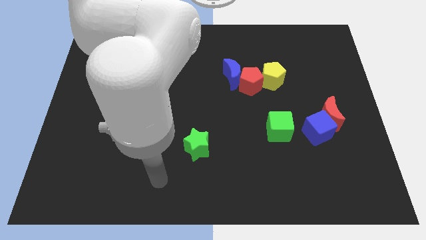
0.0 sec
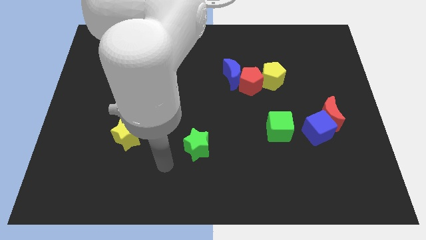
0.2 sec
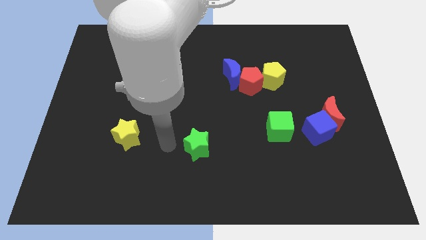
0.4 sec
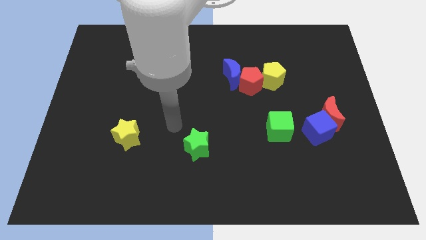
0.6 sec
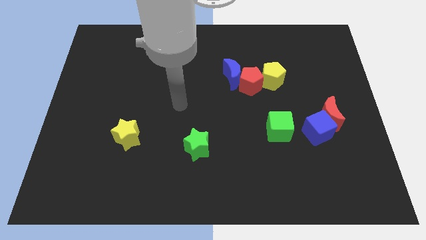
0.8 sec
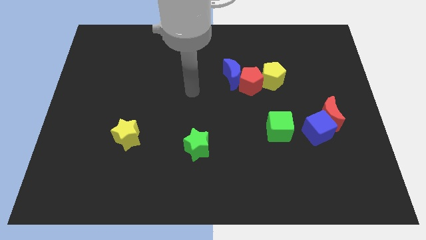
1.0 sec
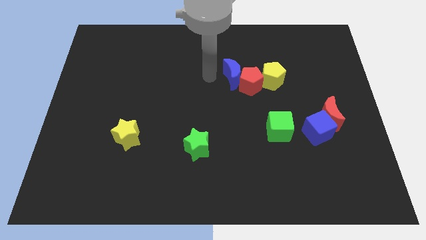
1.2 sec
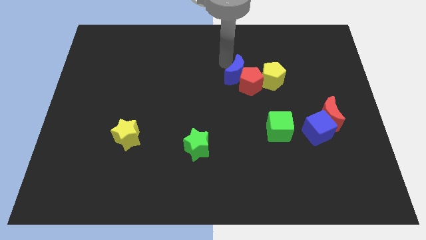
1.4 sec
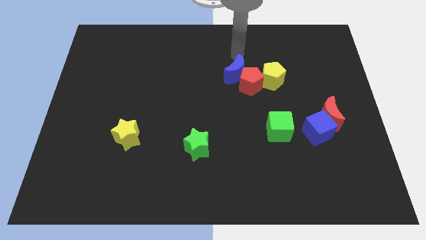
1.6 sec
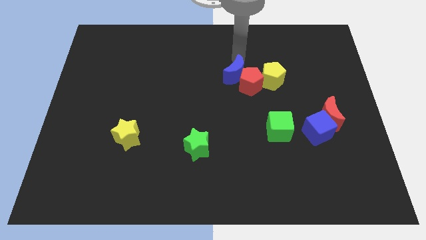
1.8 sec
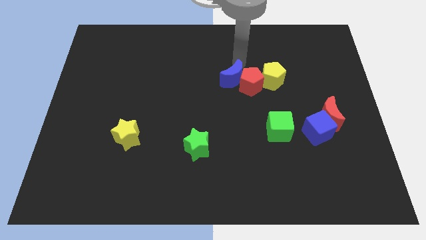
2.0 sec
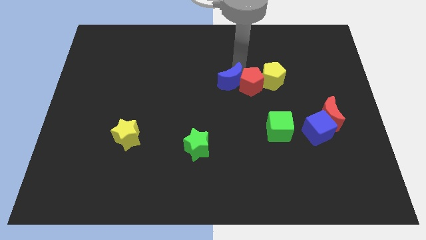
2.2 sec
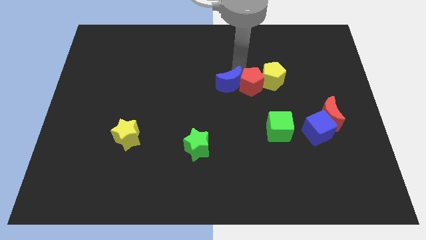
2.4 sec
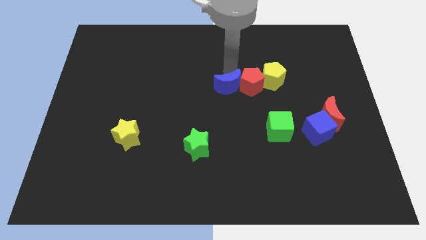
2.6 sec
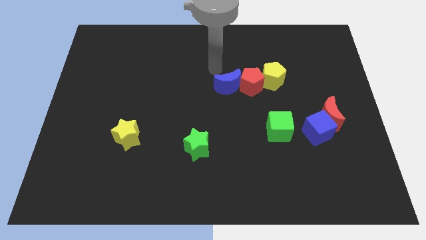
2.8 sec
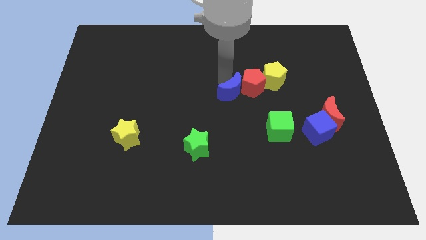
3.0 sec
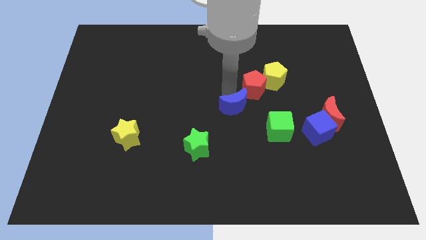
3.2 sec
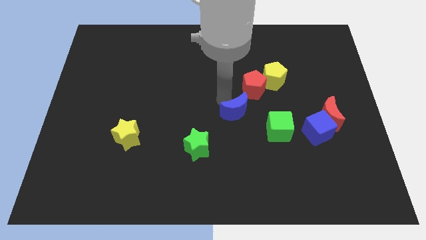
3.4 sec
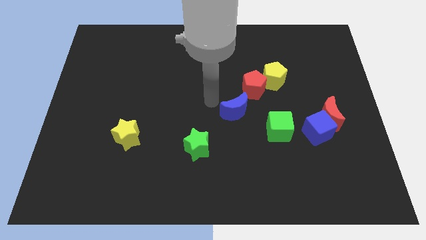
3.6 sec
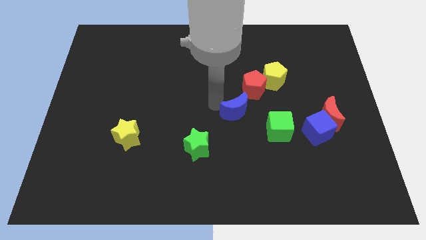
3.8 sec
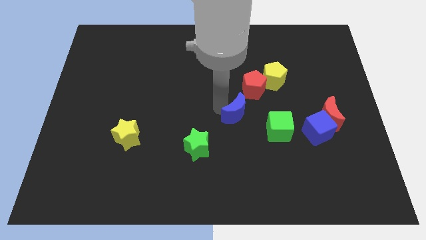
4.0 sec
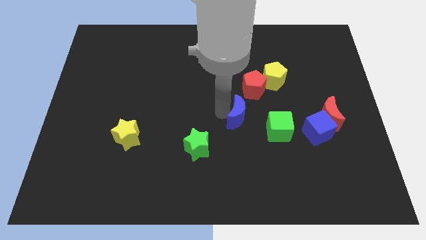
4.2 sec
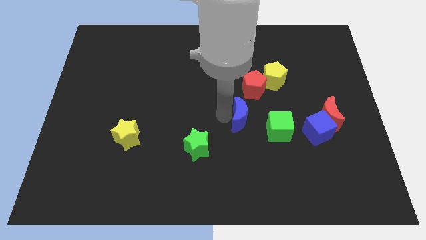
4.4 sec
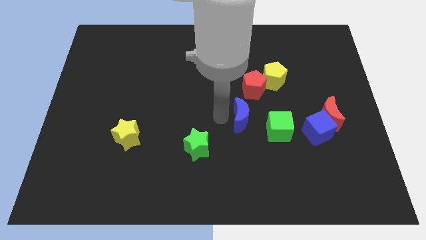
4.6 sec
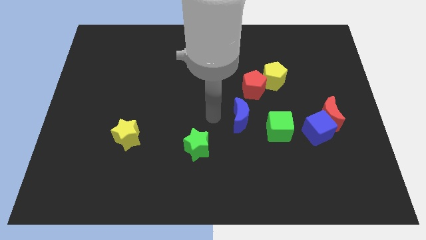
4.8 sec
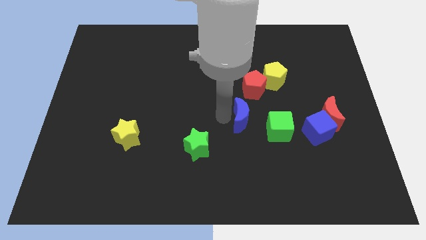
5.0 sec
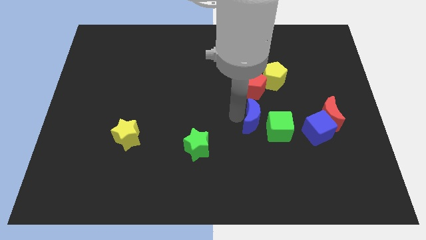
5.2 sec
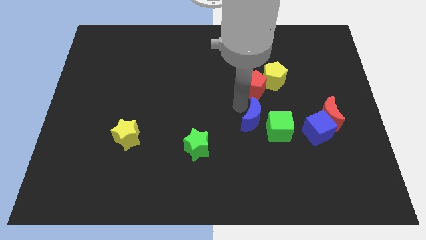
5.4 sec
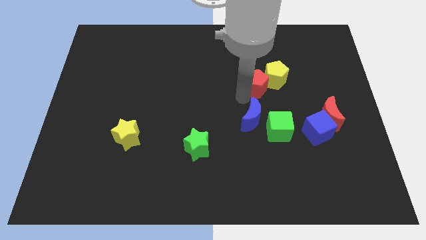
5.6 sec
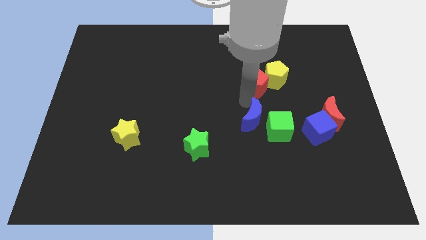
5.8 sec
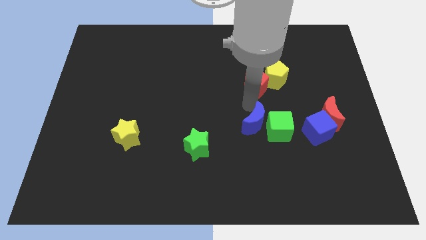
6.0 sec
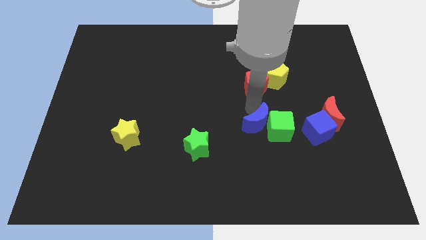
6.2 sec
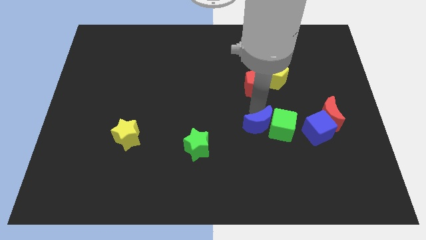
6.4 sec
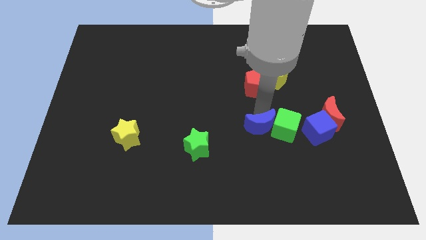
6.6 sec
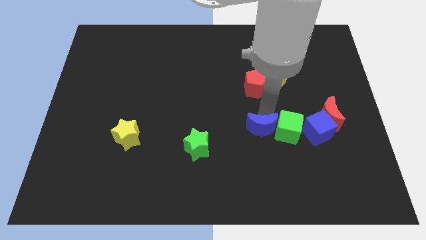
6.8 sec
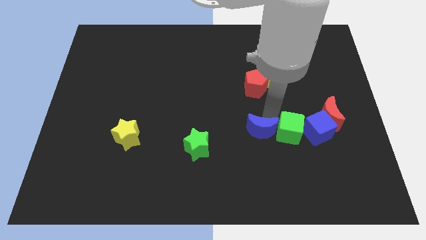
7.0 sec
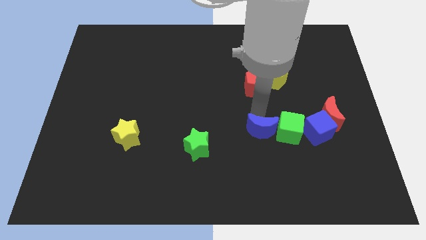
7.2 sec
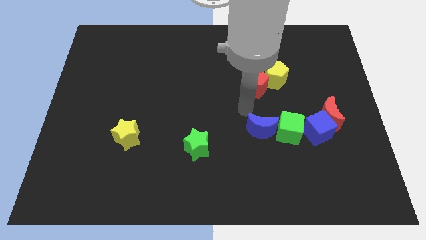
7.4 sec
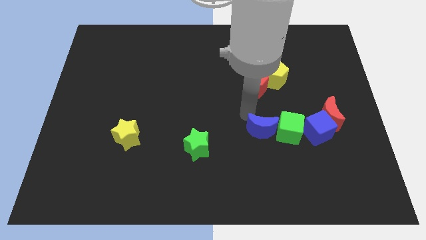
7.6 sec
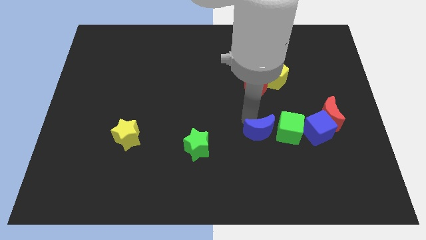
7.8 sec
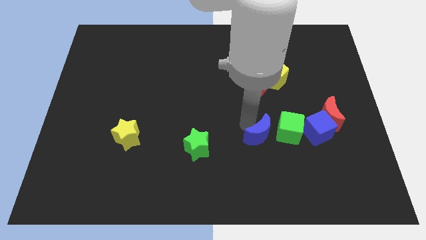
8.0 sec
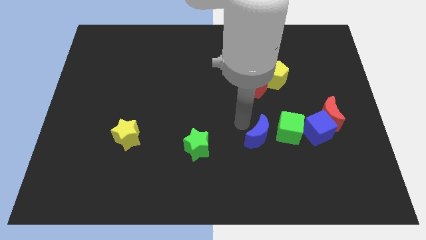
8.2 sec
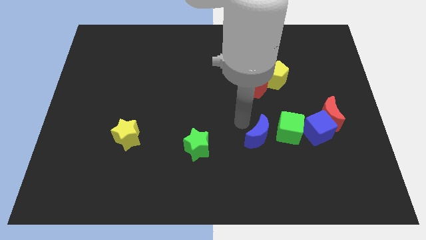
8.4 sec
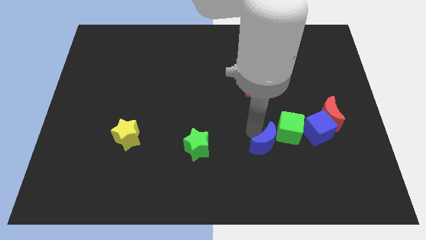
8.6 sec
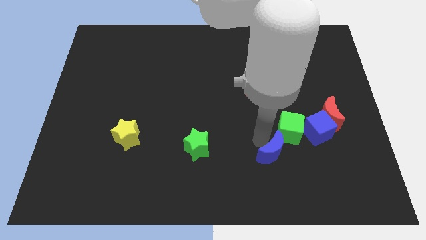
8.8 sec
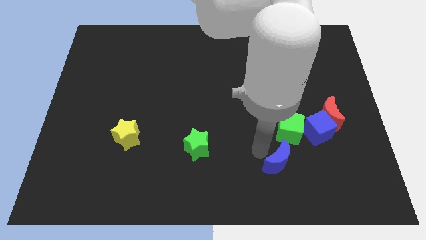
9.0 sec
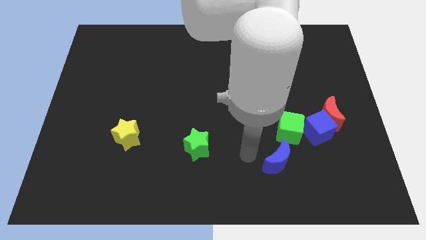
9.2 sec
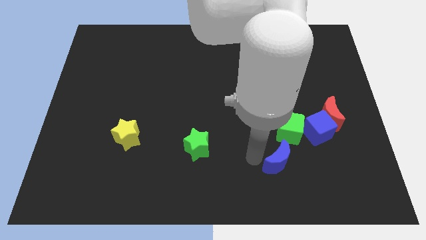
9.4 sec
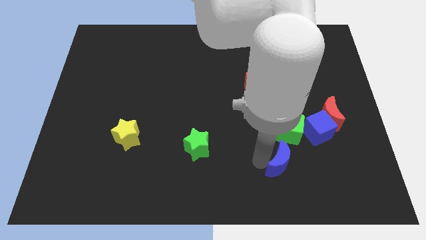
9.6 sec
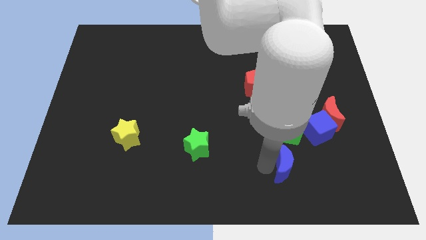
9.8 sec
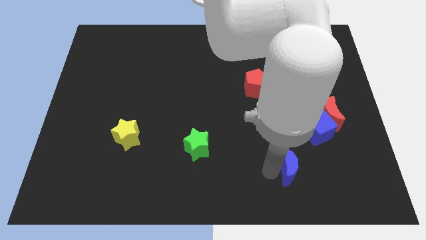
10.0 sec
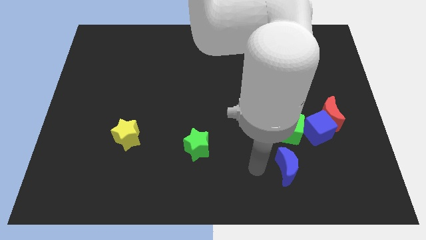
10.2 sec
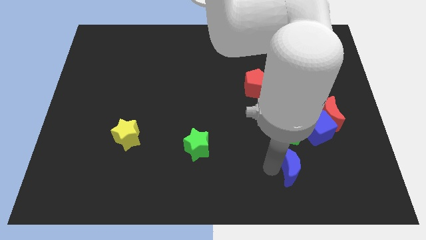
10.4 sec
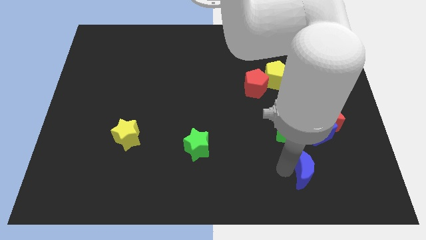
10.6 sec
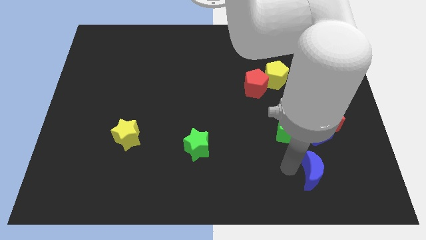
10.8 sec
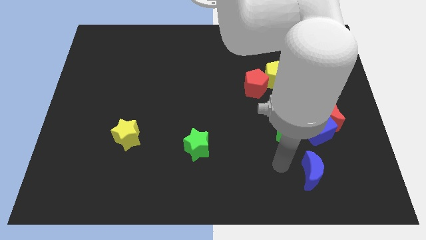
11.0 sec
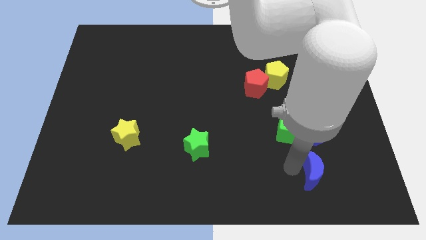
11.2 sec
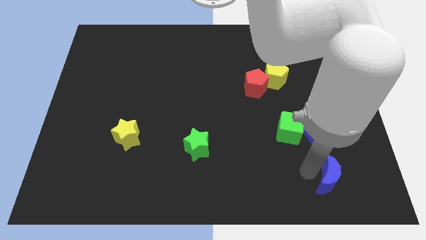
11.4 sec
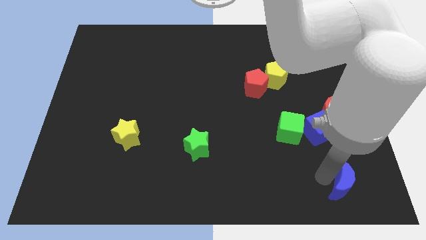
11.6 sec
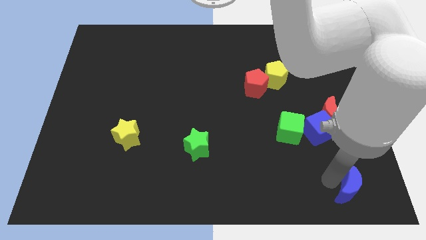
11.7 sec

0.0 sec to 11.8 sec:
push the blue moon to the bottom right of the board

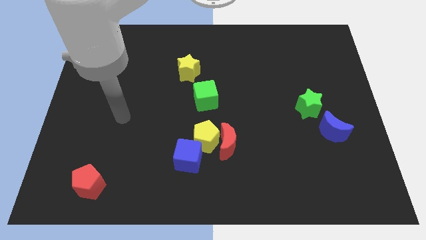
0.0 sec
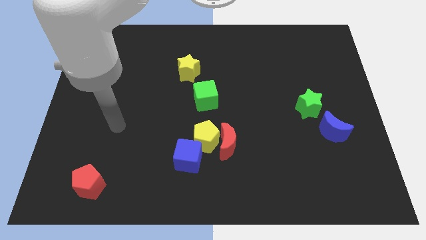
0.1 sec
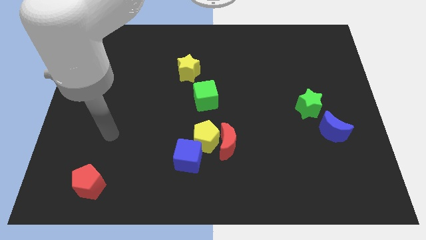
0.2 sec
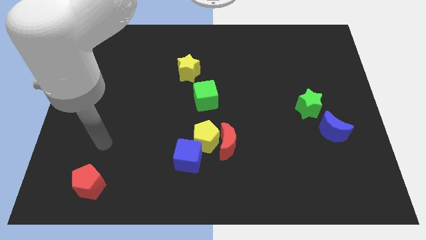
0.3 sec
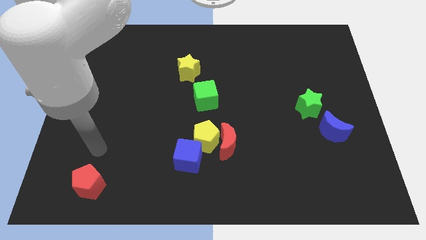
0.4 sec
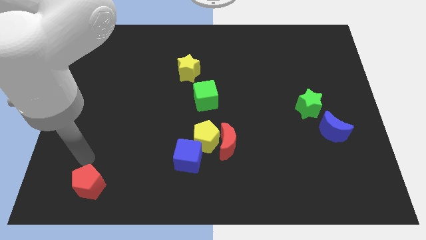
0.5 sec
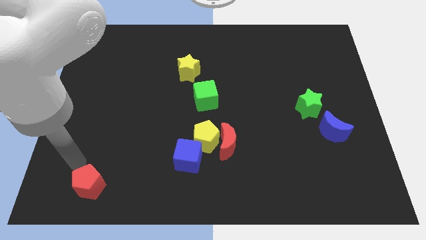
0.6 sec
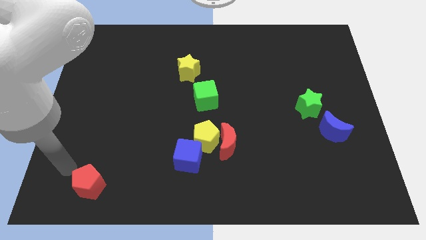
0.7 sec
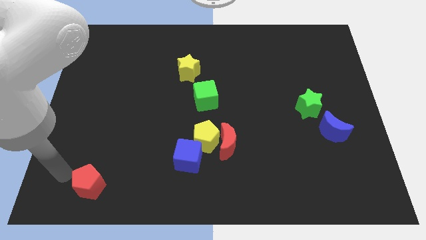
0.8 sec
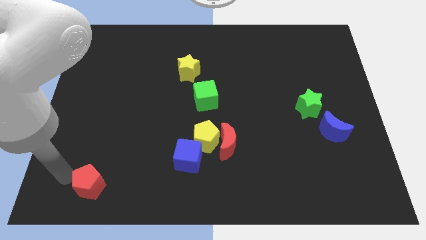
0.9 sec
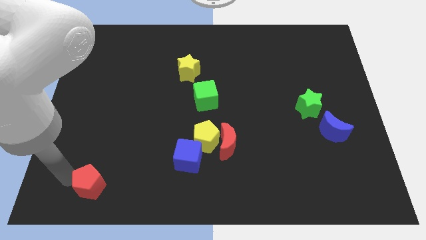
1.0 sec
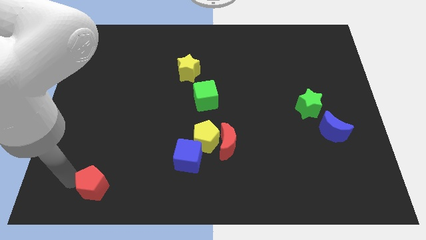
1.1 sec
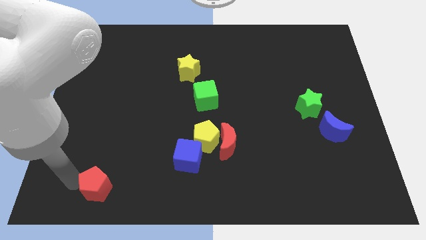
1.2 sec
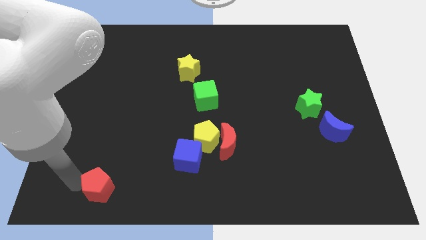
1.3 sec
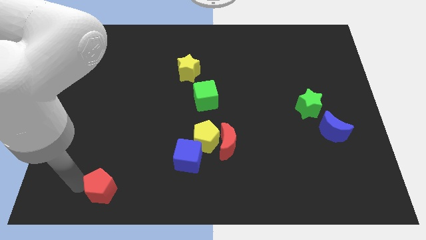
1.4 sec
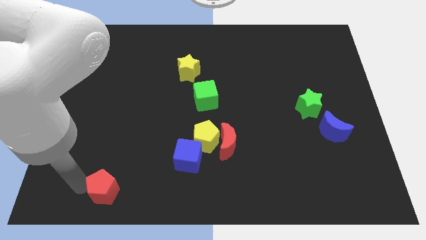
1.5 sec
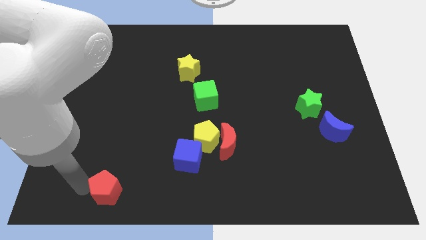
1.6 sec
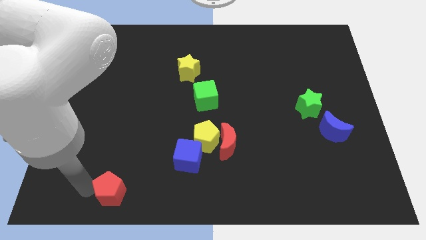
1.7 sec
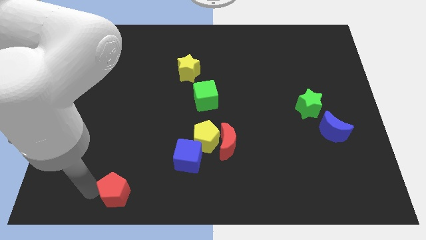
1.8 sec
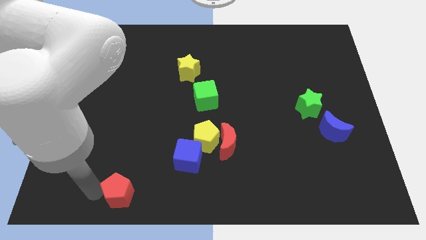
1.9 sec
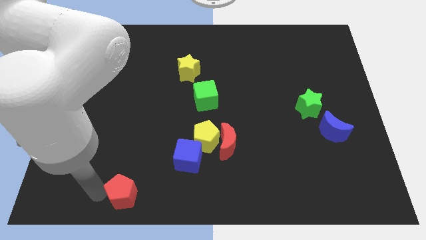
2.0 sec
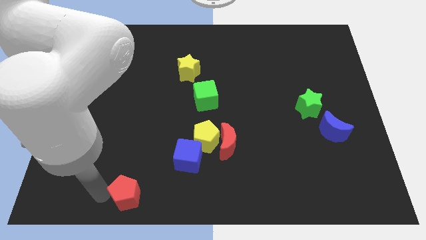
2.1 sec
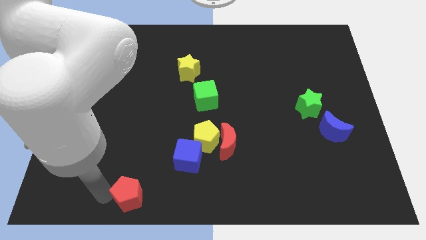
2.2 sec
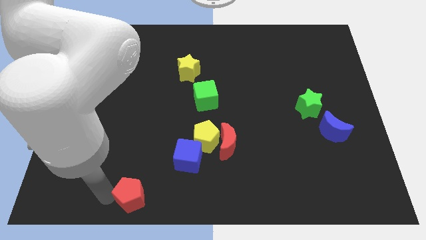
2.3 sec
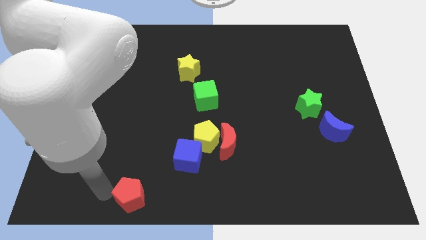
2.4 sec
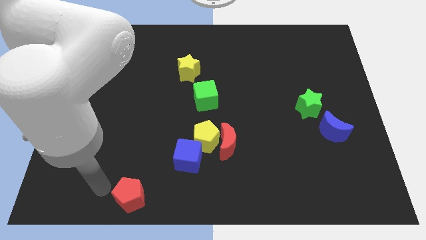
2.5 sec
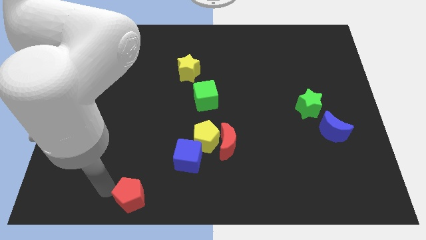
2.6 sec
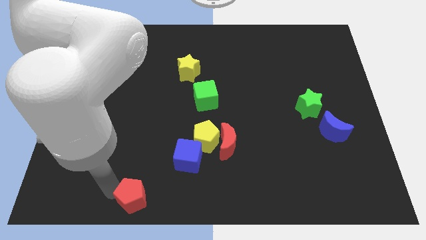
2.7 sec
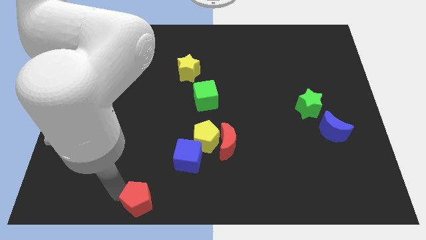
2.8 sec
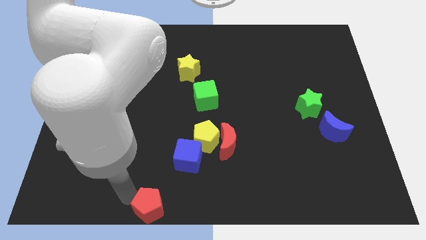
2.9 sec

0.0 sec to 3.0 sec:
put the red pentagon to the bottom side
